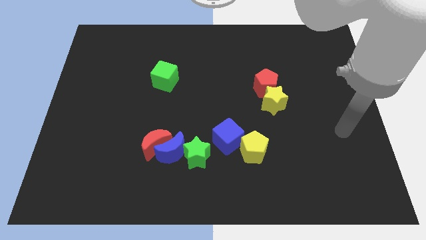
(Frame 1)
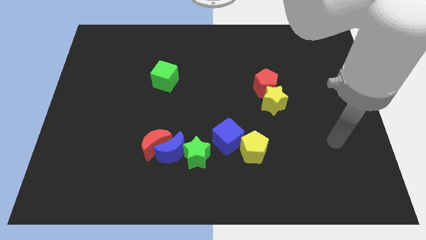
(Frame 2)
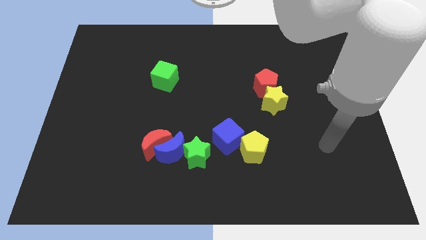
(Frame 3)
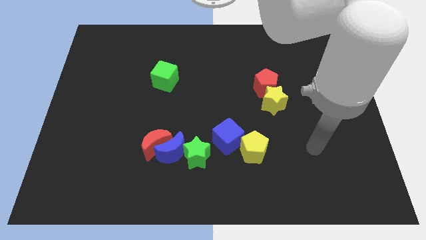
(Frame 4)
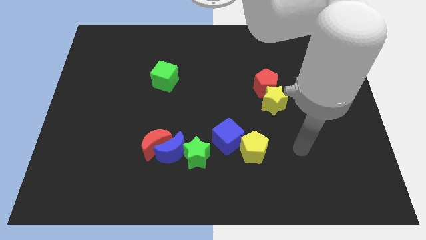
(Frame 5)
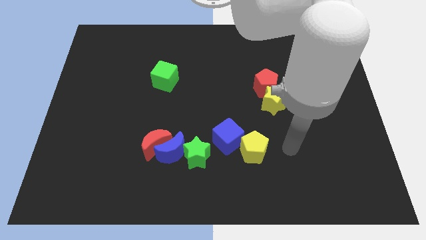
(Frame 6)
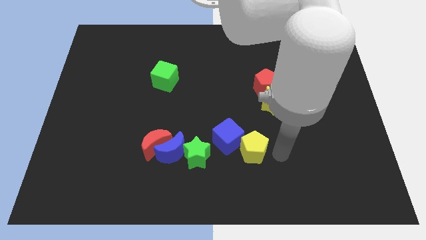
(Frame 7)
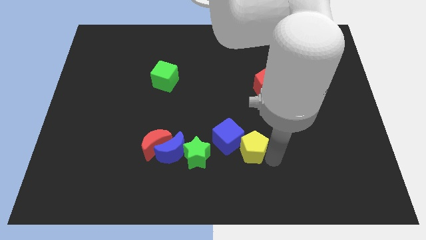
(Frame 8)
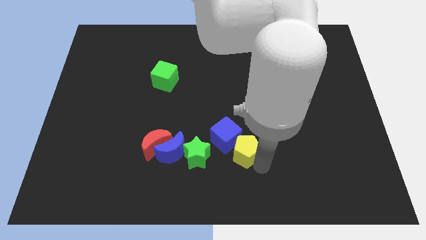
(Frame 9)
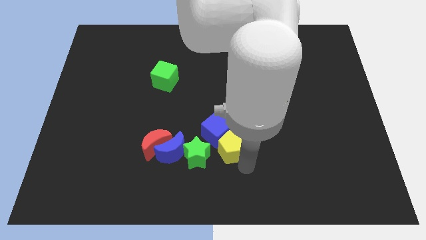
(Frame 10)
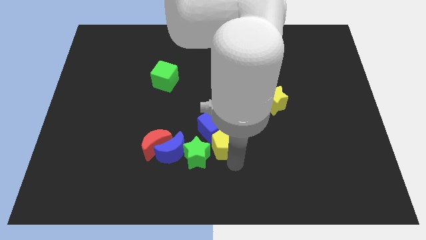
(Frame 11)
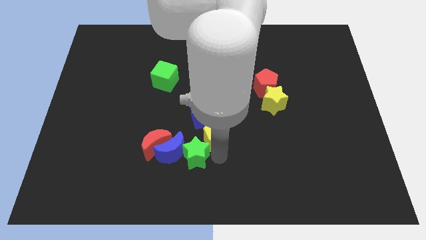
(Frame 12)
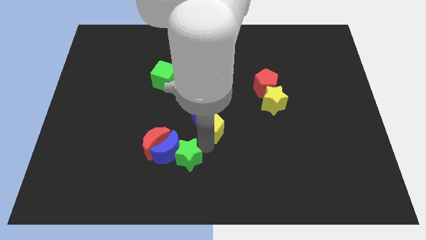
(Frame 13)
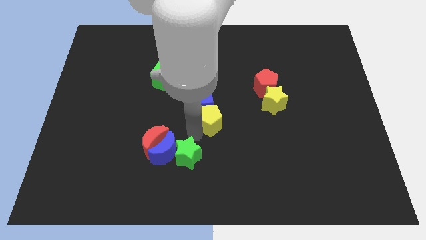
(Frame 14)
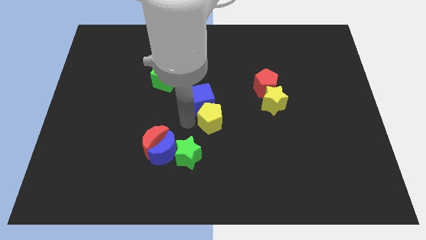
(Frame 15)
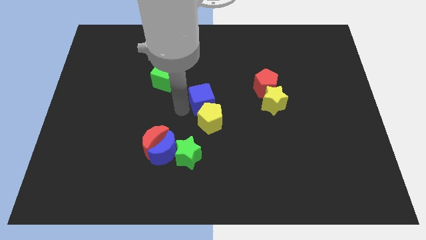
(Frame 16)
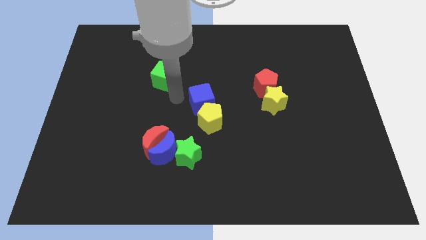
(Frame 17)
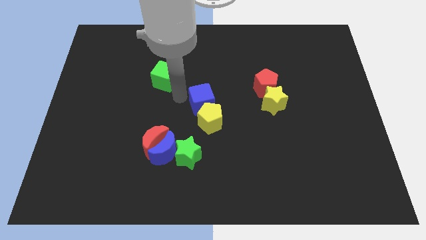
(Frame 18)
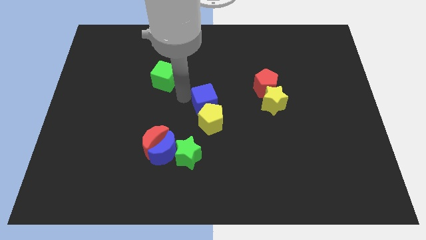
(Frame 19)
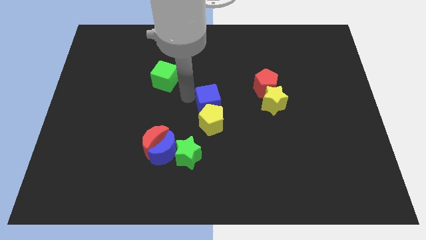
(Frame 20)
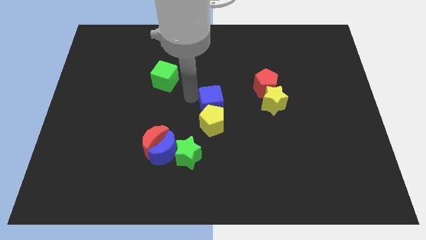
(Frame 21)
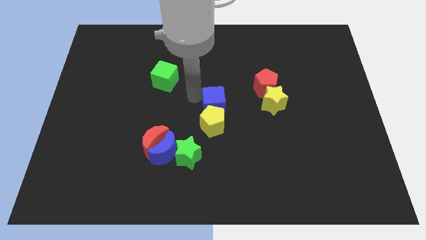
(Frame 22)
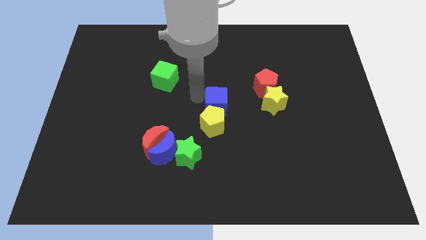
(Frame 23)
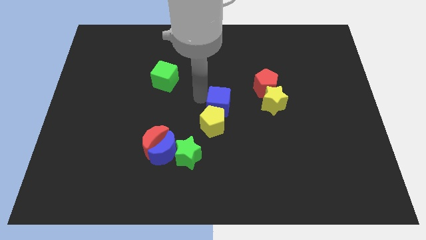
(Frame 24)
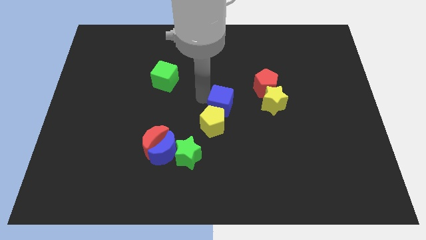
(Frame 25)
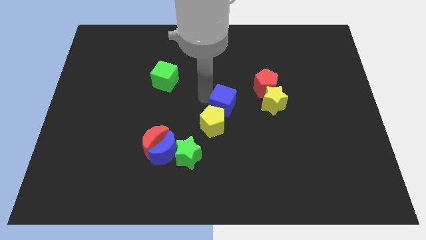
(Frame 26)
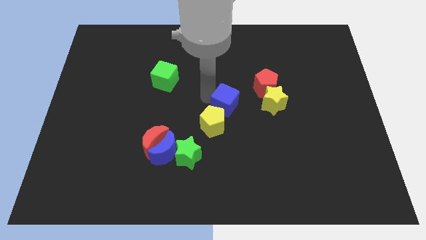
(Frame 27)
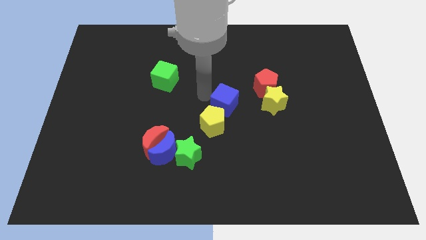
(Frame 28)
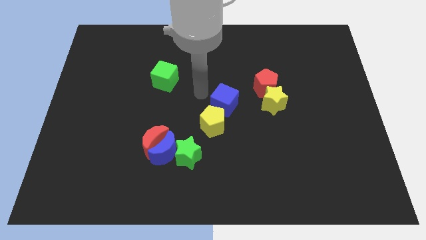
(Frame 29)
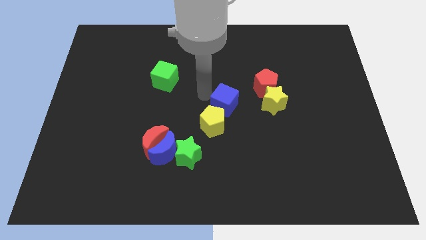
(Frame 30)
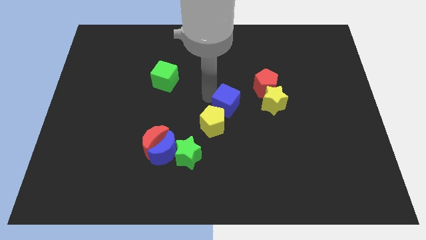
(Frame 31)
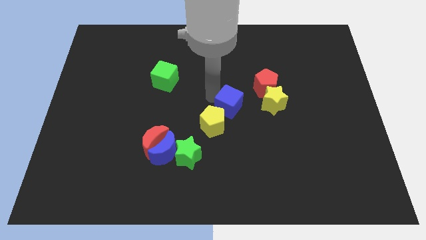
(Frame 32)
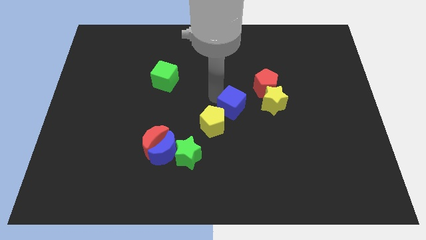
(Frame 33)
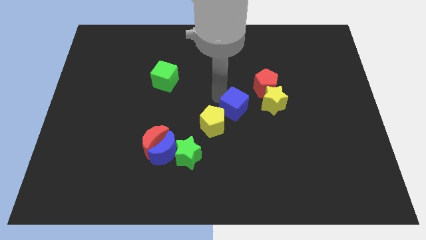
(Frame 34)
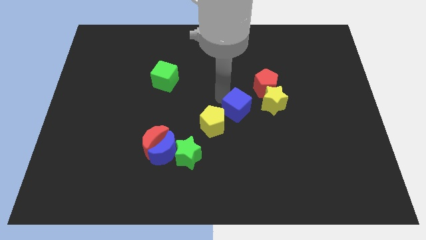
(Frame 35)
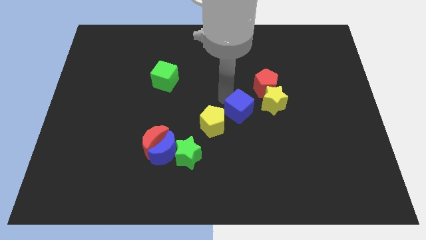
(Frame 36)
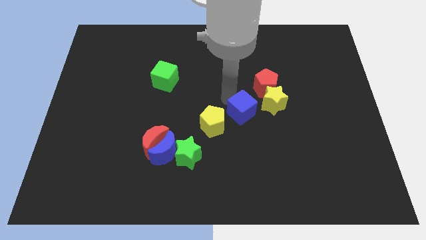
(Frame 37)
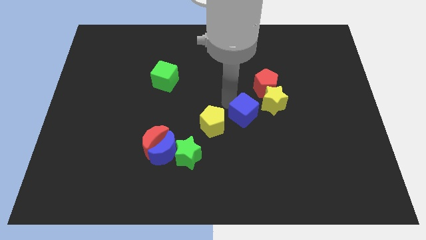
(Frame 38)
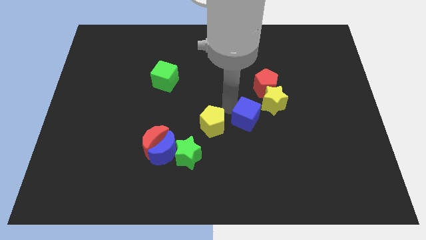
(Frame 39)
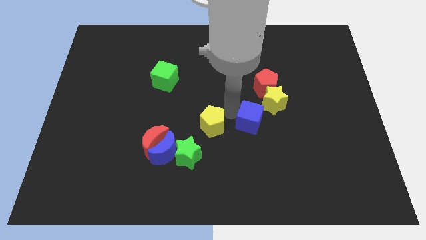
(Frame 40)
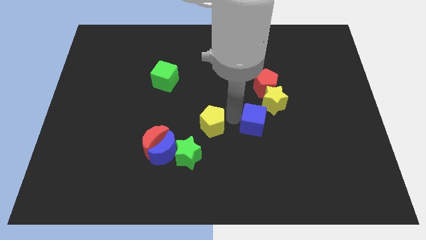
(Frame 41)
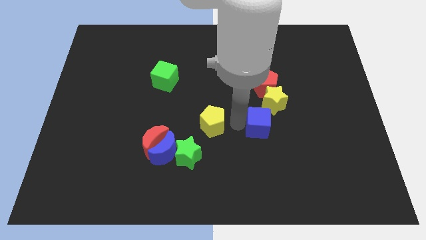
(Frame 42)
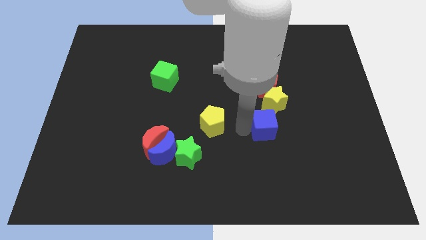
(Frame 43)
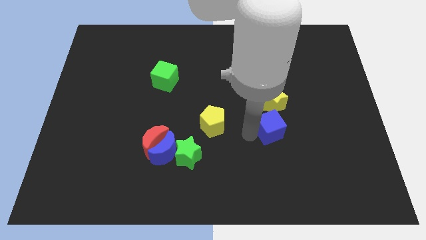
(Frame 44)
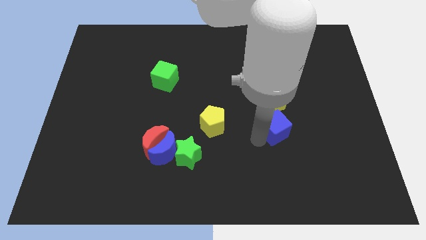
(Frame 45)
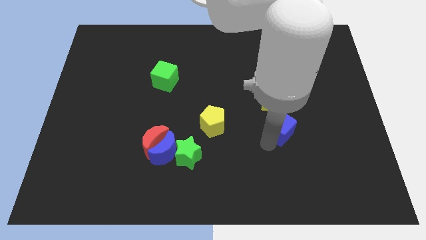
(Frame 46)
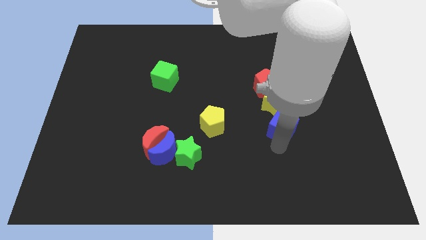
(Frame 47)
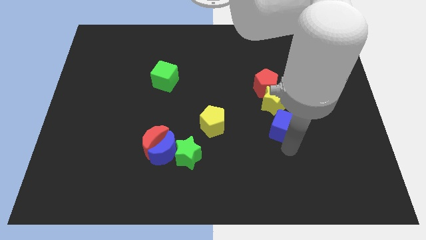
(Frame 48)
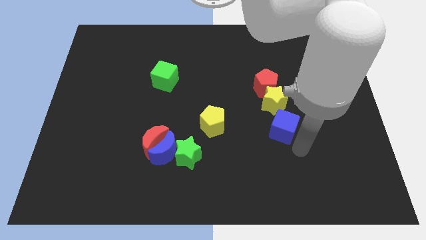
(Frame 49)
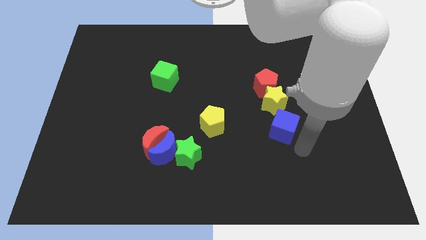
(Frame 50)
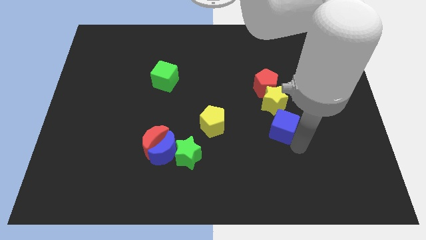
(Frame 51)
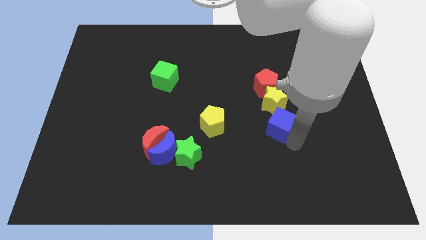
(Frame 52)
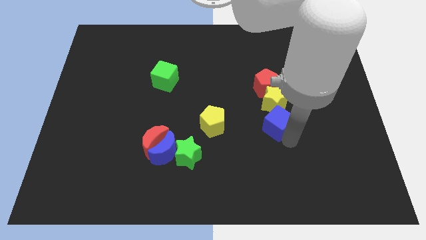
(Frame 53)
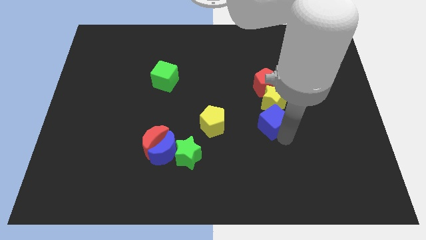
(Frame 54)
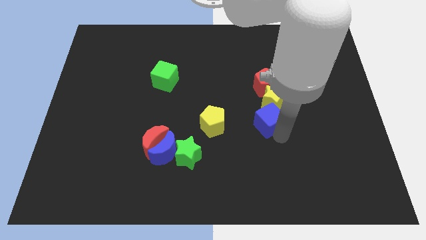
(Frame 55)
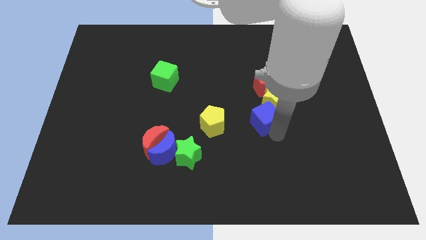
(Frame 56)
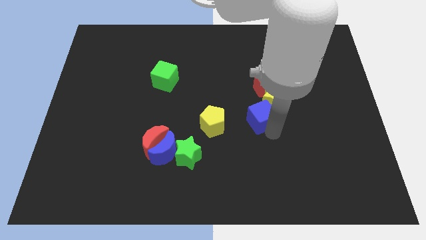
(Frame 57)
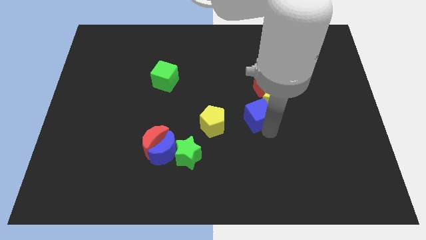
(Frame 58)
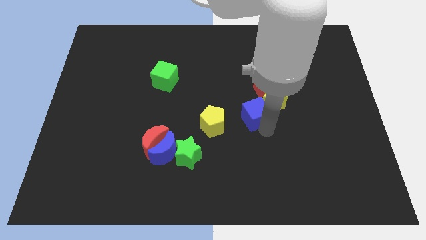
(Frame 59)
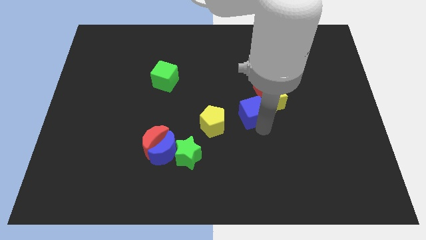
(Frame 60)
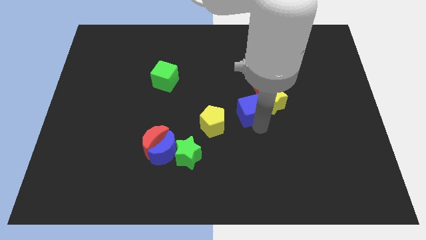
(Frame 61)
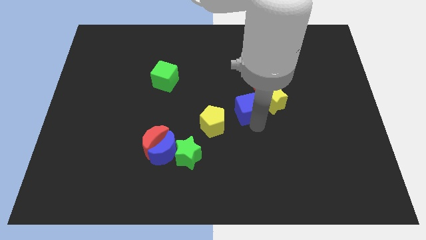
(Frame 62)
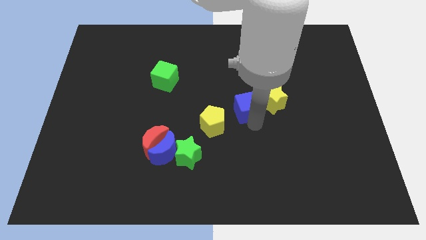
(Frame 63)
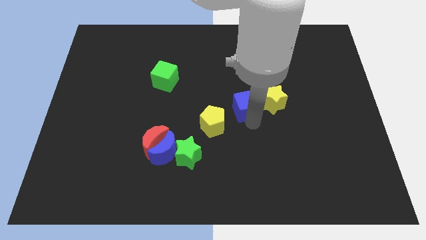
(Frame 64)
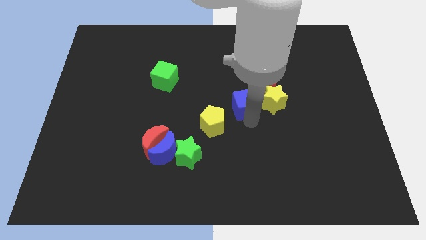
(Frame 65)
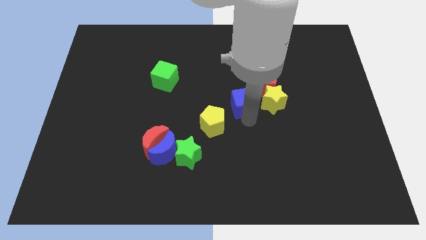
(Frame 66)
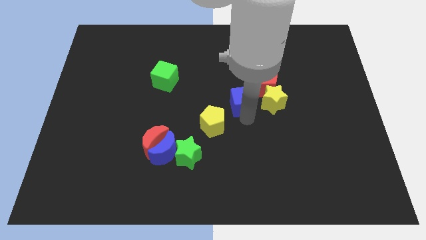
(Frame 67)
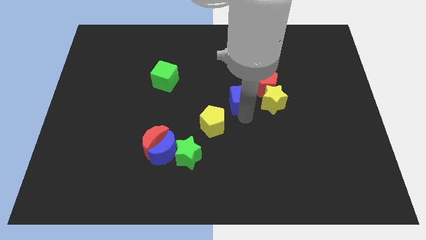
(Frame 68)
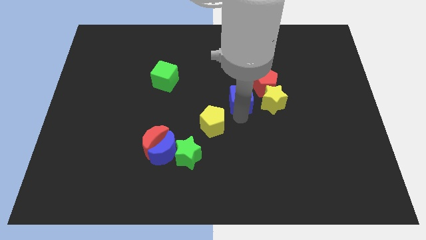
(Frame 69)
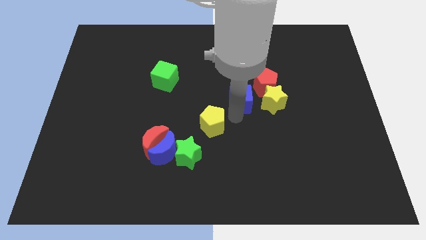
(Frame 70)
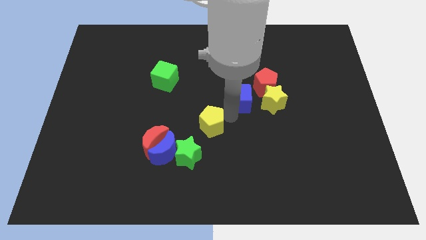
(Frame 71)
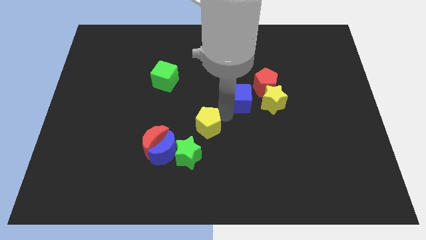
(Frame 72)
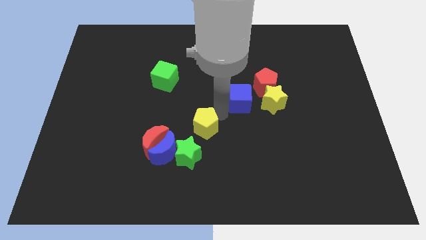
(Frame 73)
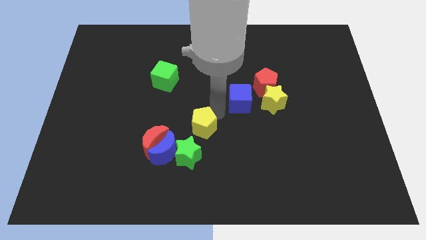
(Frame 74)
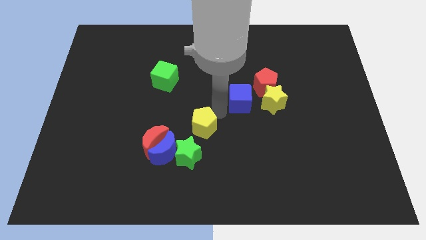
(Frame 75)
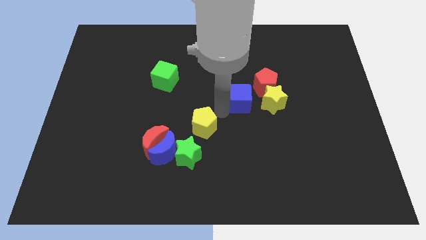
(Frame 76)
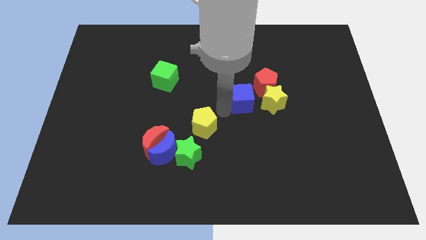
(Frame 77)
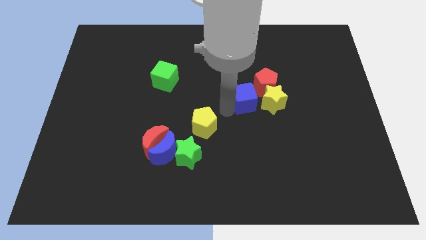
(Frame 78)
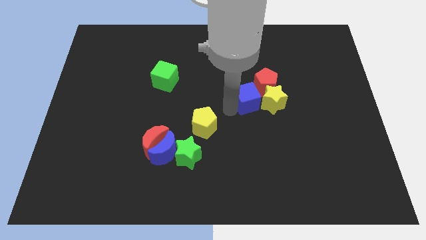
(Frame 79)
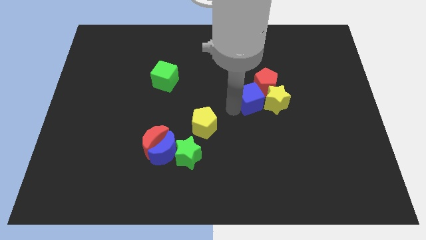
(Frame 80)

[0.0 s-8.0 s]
slide the blue cube to the red pentagon

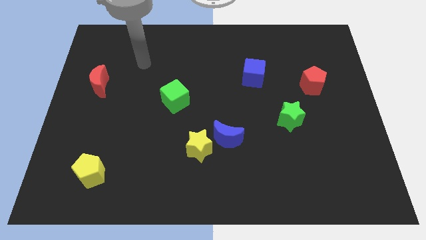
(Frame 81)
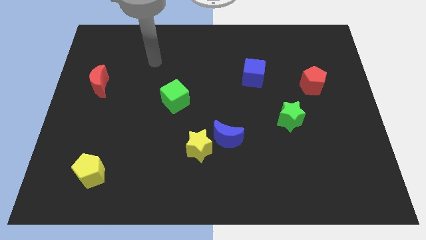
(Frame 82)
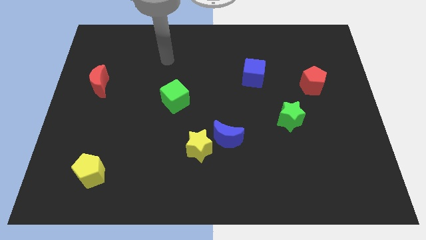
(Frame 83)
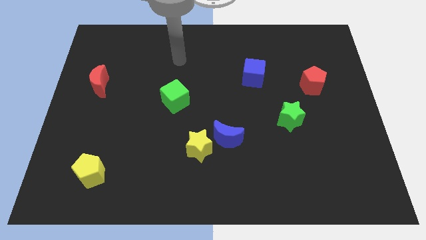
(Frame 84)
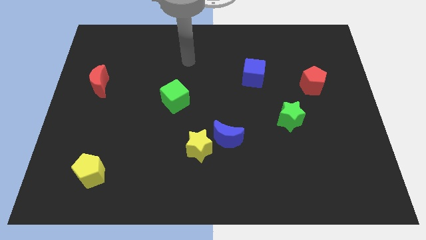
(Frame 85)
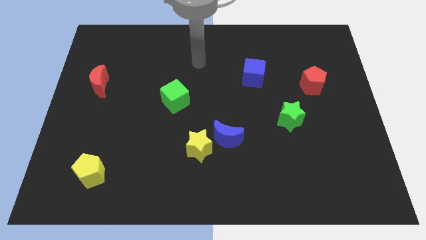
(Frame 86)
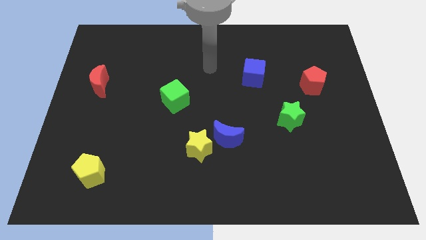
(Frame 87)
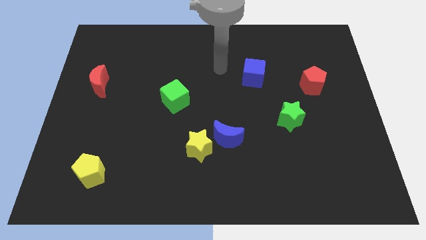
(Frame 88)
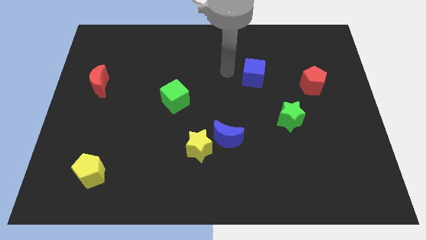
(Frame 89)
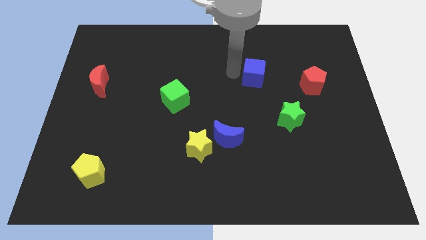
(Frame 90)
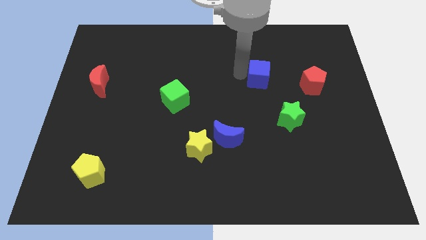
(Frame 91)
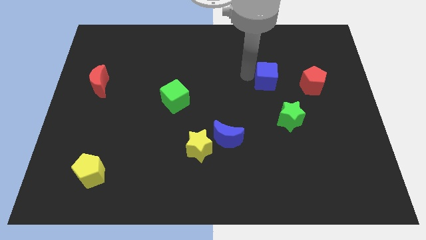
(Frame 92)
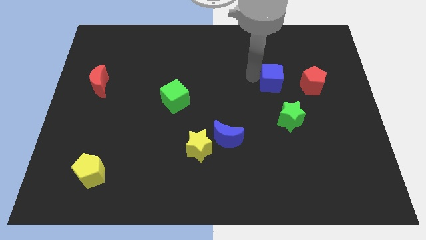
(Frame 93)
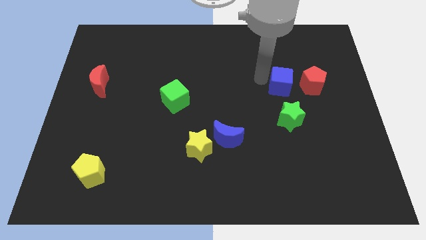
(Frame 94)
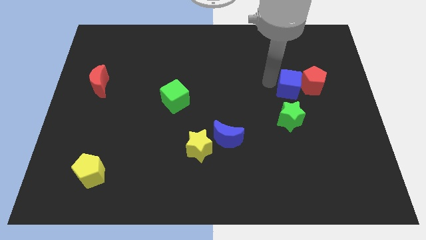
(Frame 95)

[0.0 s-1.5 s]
slide the blue cube towards the red pentagon
